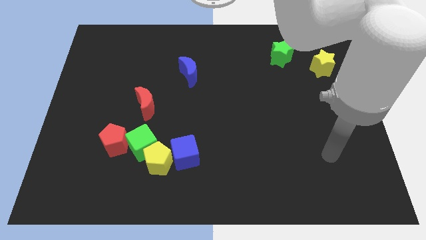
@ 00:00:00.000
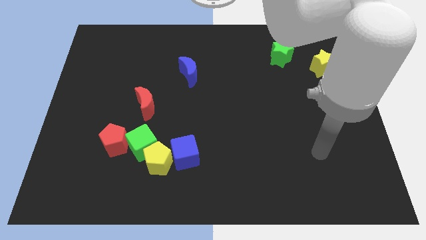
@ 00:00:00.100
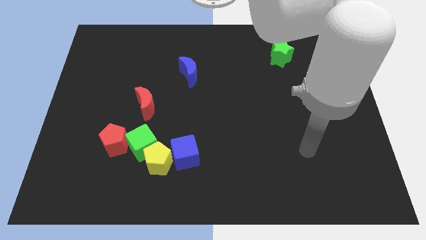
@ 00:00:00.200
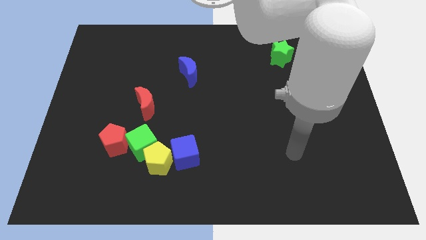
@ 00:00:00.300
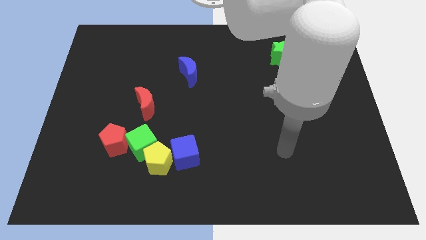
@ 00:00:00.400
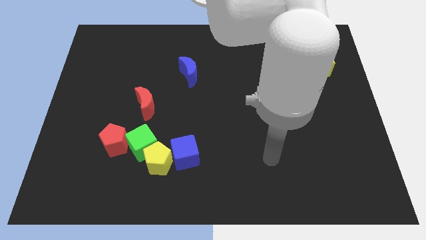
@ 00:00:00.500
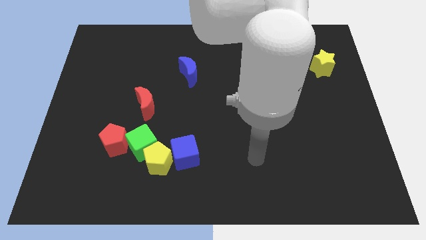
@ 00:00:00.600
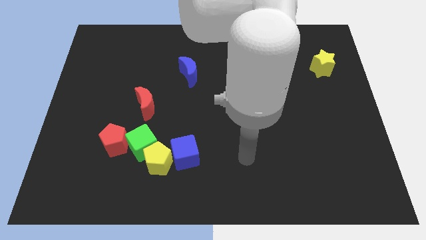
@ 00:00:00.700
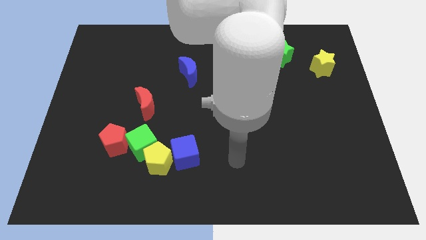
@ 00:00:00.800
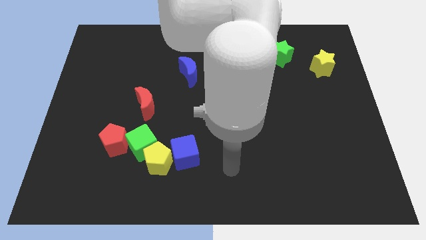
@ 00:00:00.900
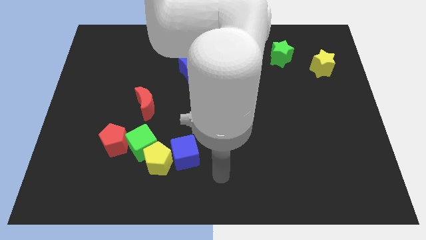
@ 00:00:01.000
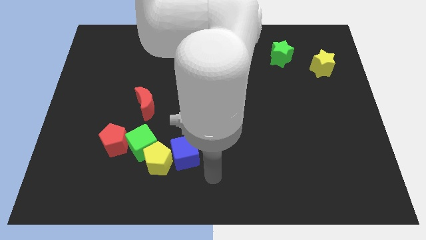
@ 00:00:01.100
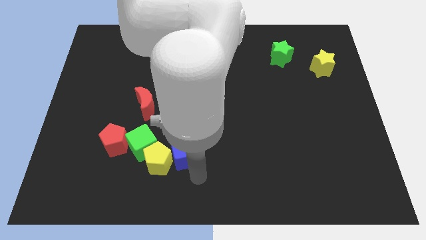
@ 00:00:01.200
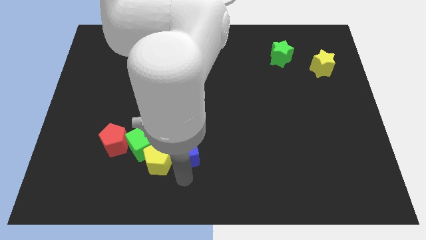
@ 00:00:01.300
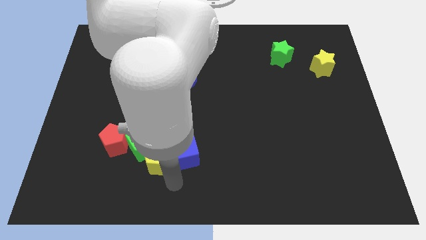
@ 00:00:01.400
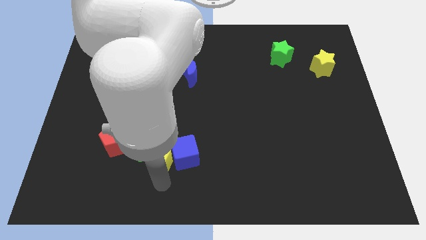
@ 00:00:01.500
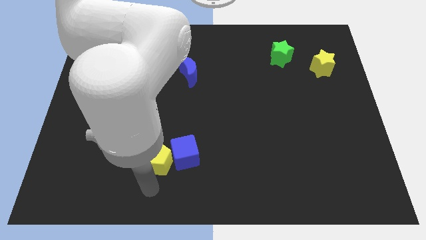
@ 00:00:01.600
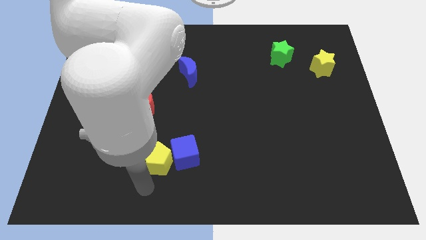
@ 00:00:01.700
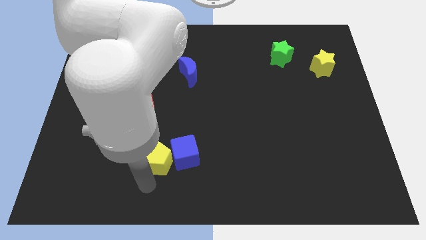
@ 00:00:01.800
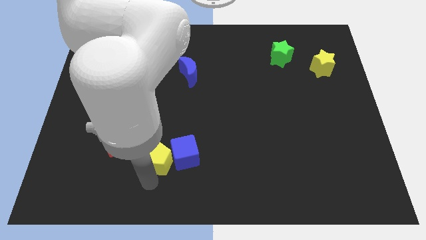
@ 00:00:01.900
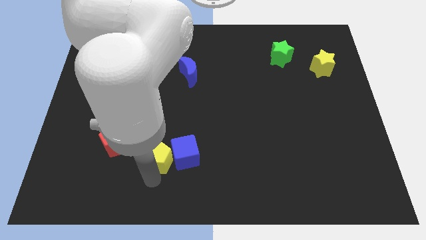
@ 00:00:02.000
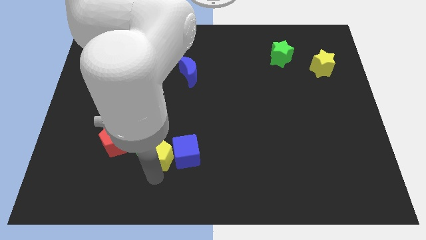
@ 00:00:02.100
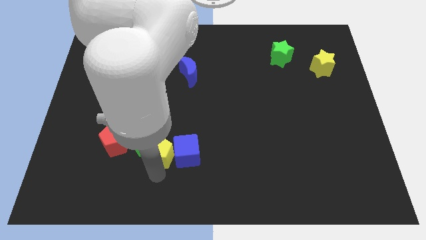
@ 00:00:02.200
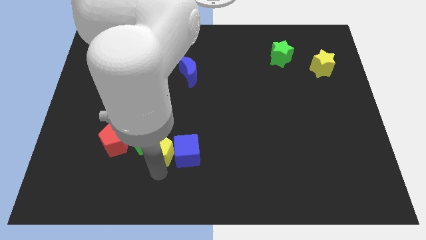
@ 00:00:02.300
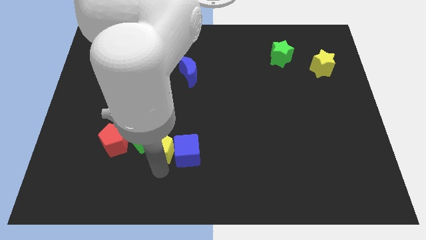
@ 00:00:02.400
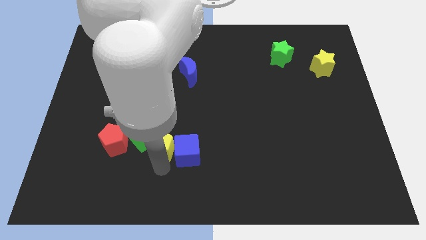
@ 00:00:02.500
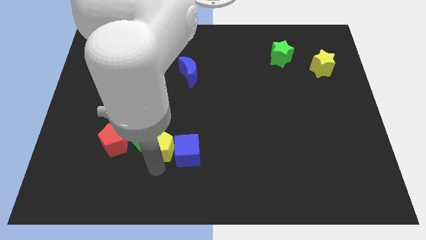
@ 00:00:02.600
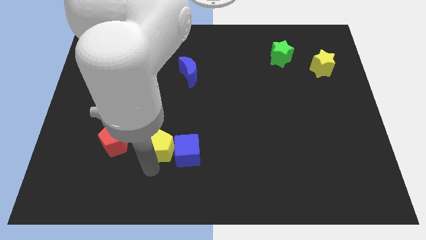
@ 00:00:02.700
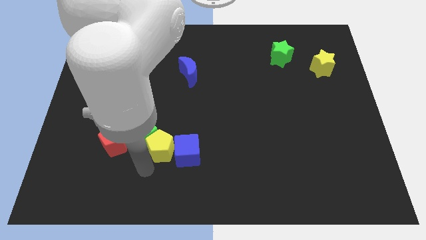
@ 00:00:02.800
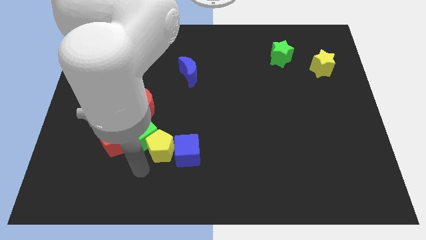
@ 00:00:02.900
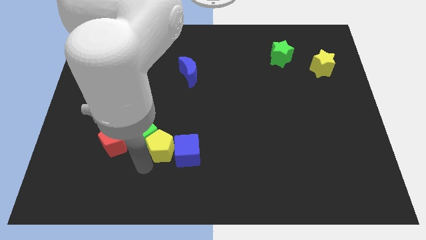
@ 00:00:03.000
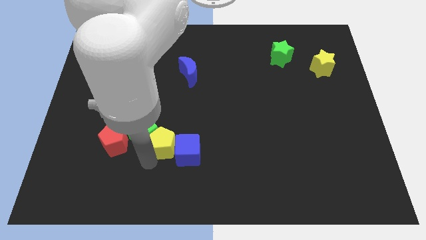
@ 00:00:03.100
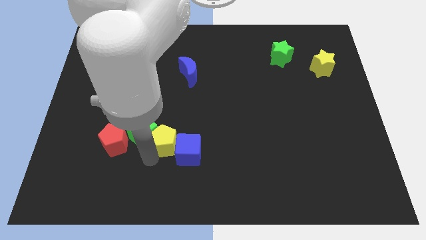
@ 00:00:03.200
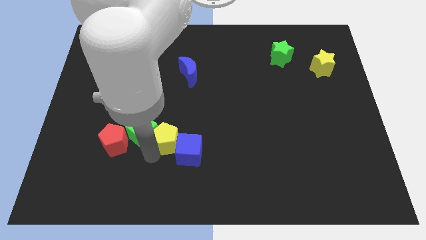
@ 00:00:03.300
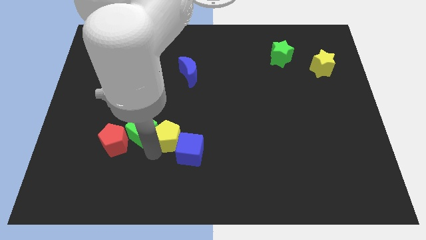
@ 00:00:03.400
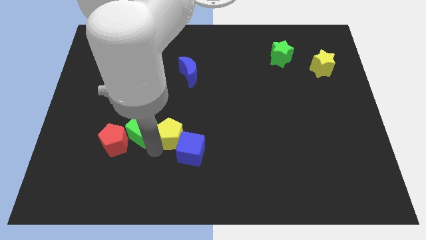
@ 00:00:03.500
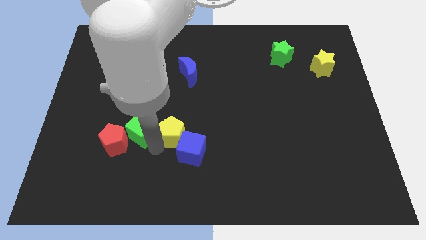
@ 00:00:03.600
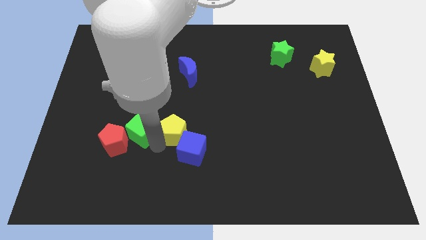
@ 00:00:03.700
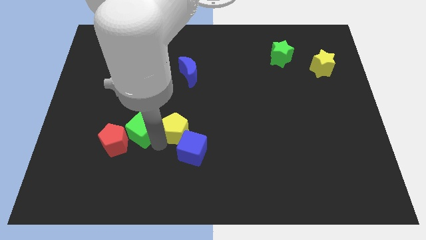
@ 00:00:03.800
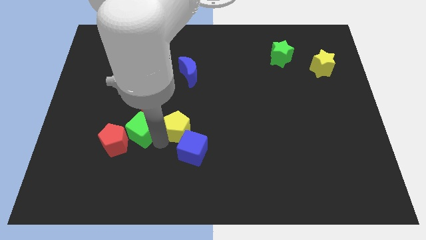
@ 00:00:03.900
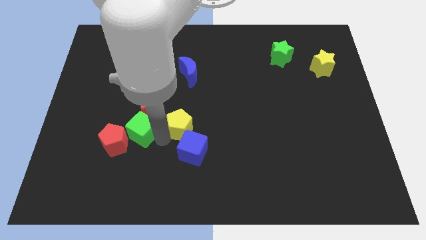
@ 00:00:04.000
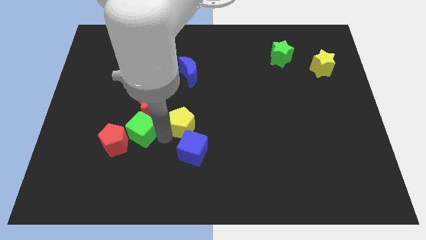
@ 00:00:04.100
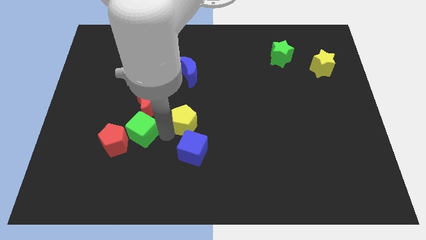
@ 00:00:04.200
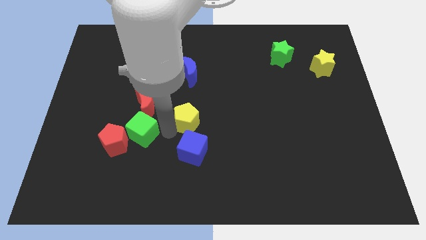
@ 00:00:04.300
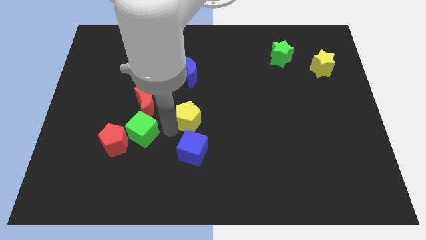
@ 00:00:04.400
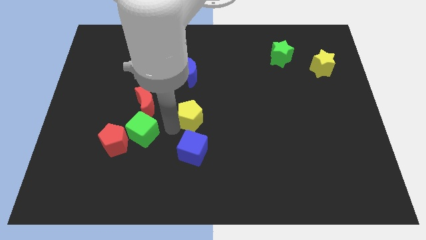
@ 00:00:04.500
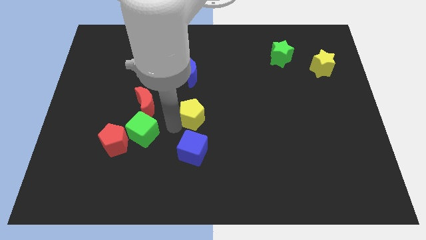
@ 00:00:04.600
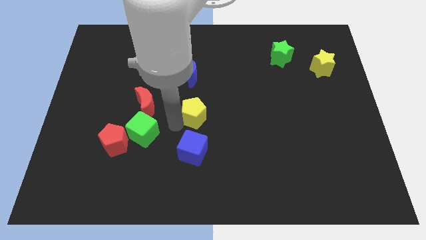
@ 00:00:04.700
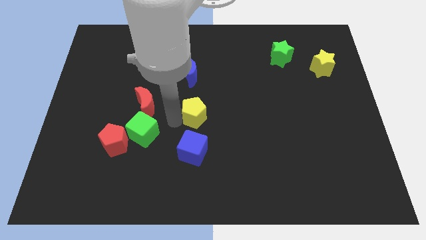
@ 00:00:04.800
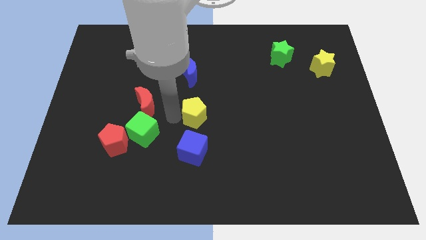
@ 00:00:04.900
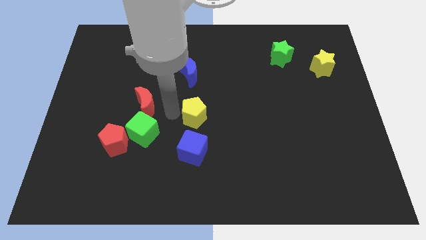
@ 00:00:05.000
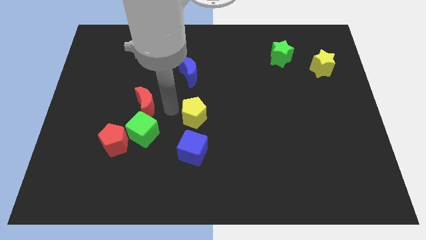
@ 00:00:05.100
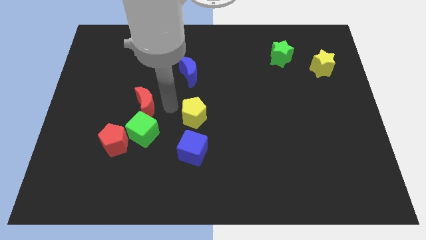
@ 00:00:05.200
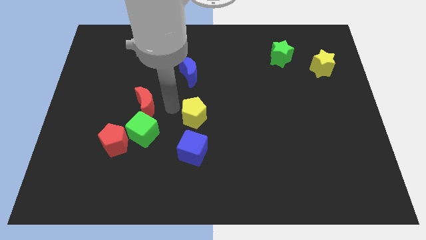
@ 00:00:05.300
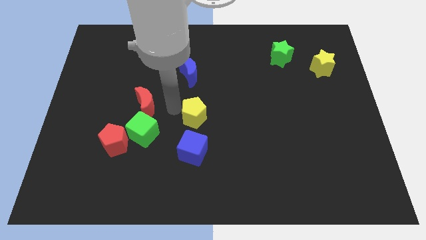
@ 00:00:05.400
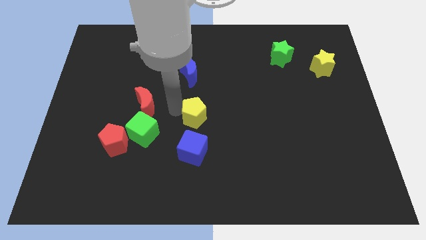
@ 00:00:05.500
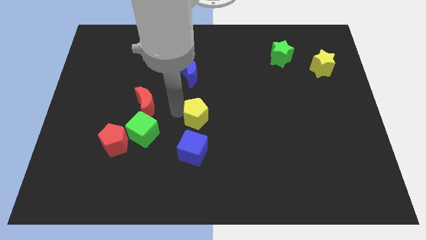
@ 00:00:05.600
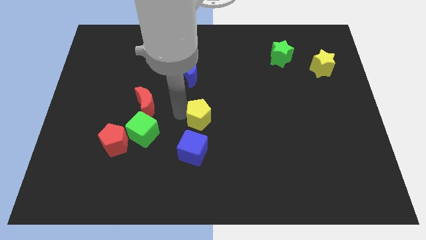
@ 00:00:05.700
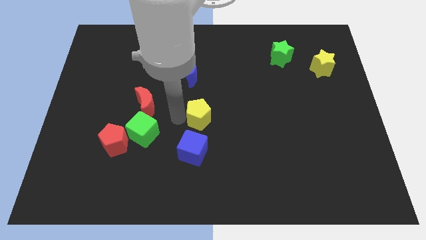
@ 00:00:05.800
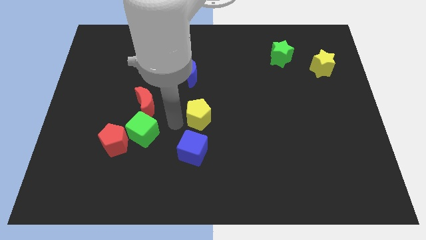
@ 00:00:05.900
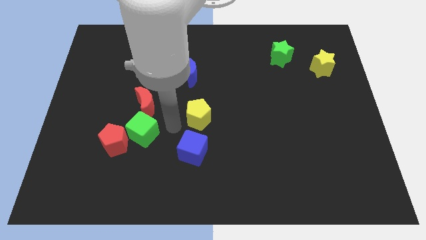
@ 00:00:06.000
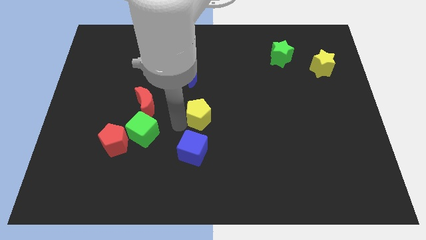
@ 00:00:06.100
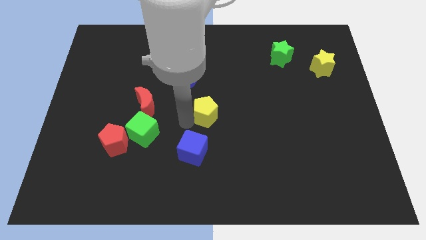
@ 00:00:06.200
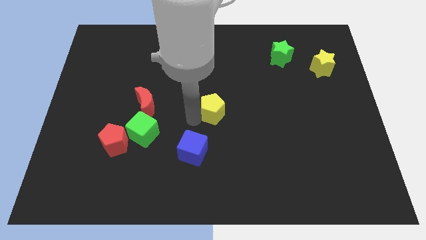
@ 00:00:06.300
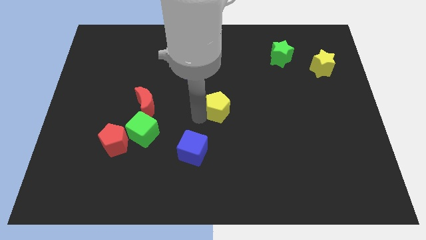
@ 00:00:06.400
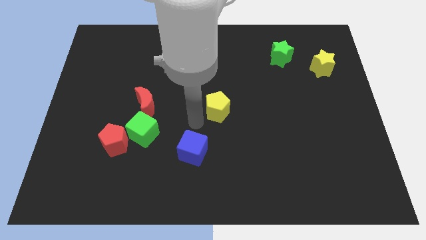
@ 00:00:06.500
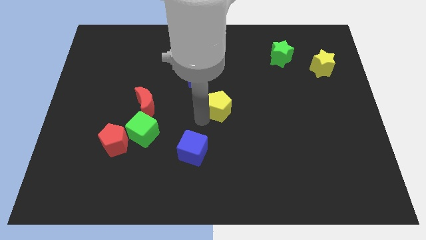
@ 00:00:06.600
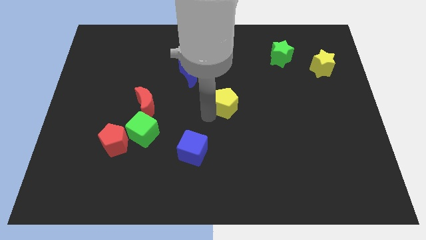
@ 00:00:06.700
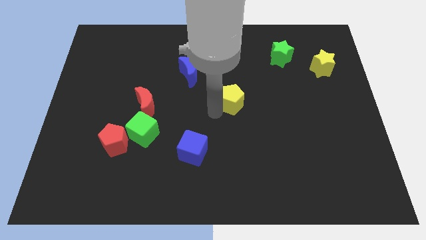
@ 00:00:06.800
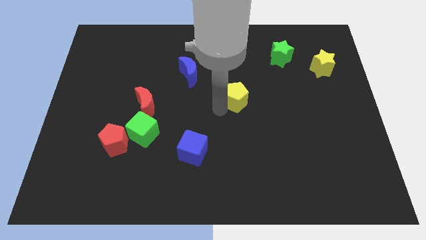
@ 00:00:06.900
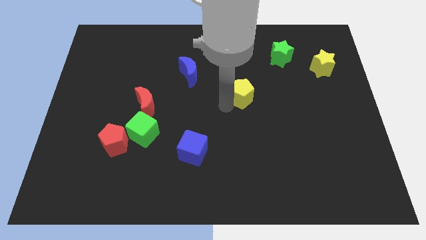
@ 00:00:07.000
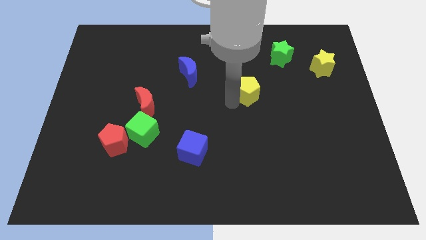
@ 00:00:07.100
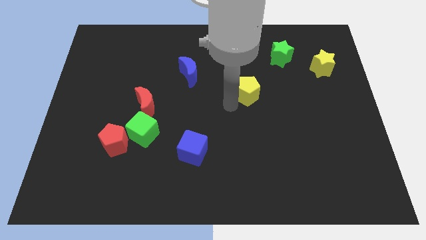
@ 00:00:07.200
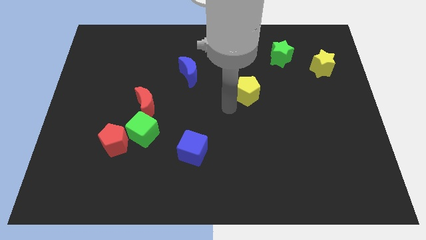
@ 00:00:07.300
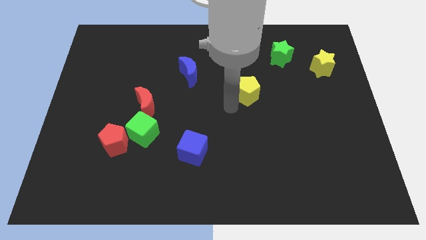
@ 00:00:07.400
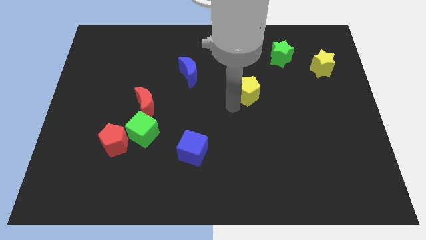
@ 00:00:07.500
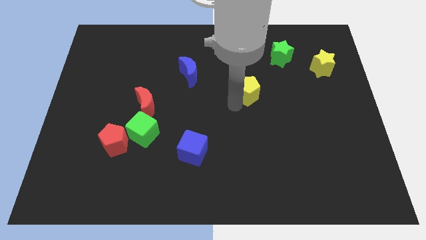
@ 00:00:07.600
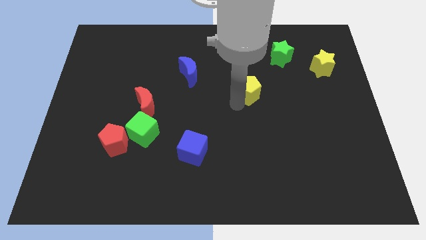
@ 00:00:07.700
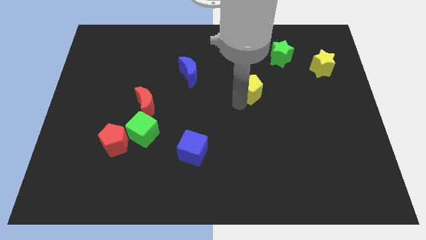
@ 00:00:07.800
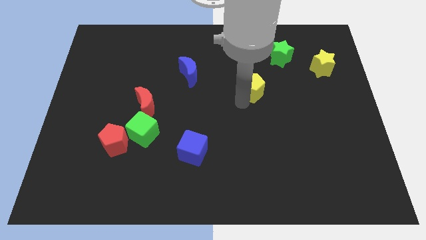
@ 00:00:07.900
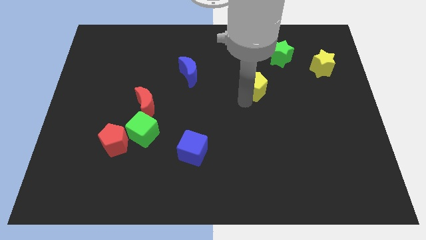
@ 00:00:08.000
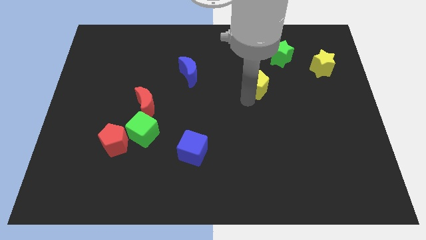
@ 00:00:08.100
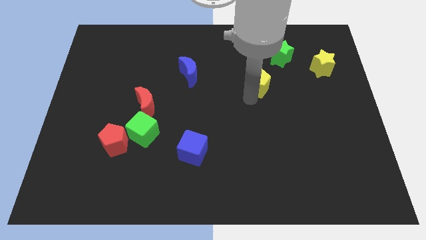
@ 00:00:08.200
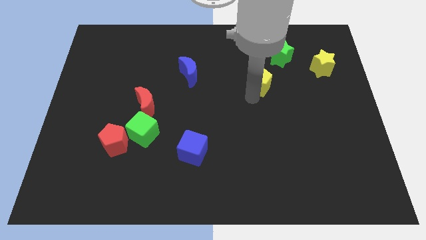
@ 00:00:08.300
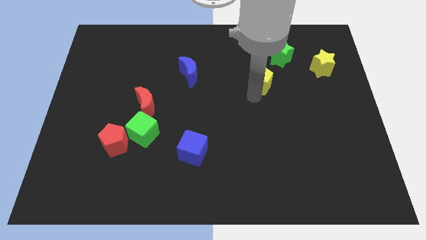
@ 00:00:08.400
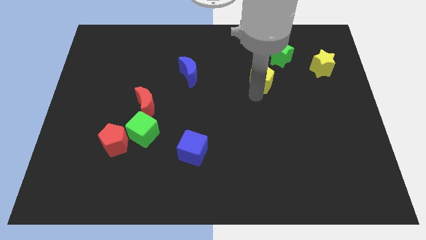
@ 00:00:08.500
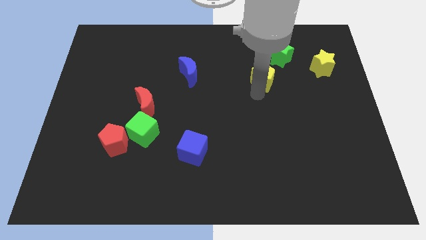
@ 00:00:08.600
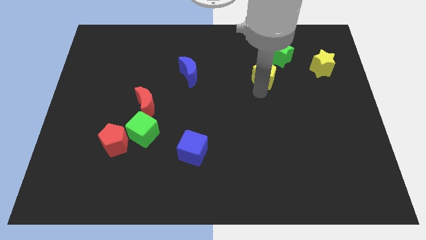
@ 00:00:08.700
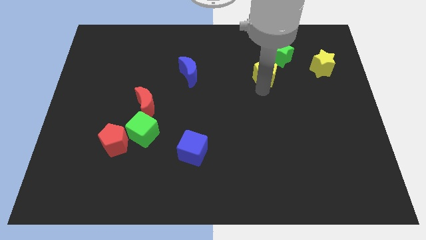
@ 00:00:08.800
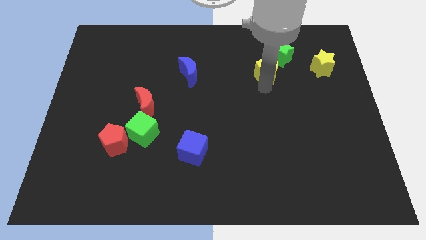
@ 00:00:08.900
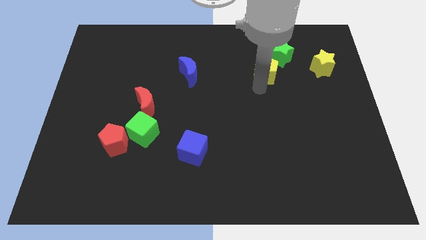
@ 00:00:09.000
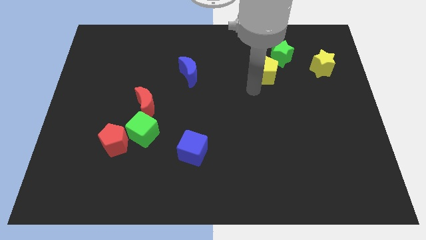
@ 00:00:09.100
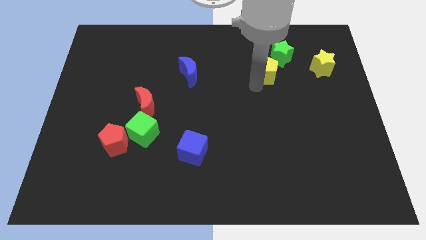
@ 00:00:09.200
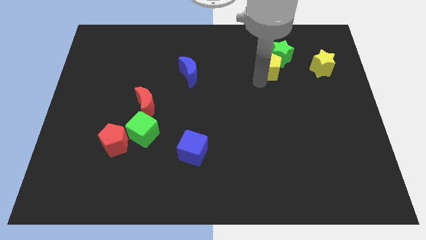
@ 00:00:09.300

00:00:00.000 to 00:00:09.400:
slide the yellow pentagon towards the green star
